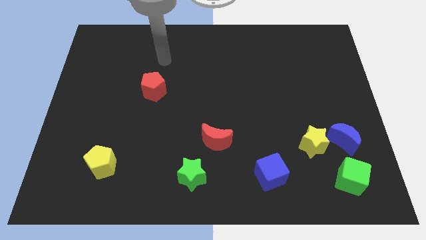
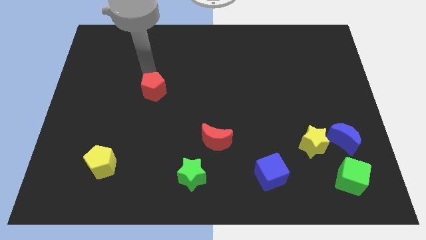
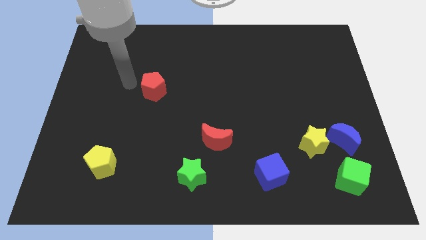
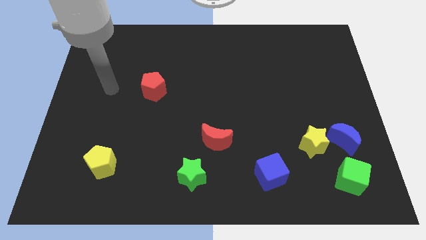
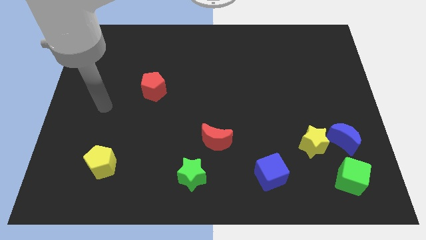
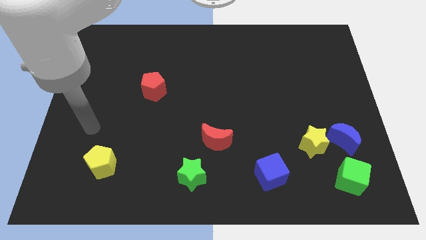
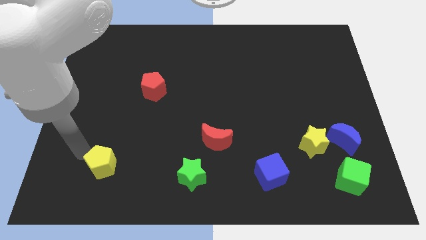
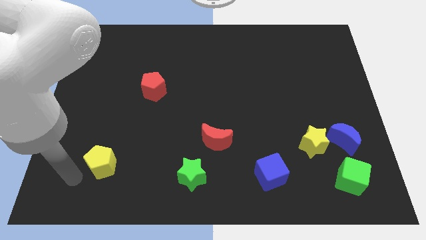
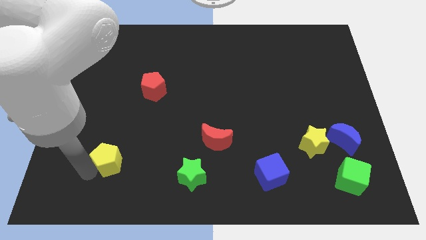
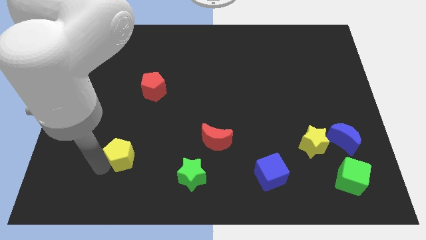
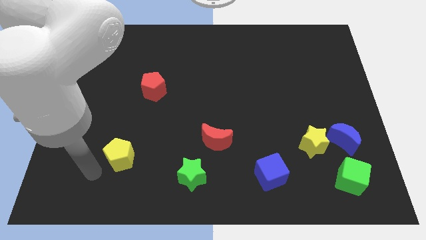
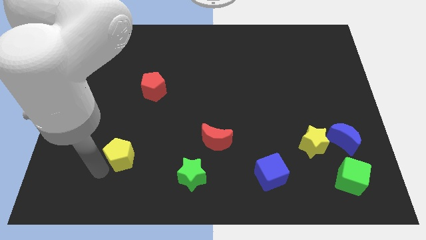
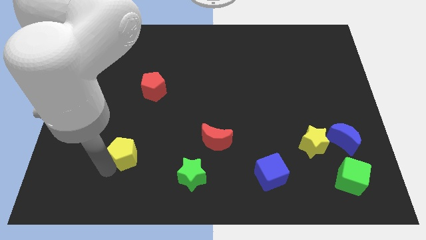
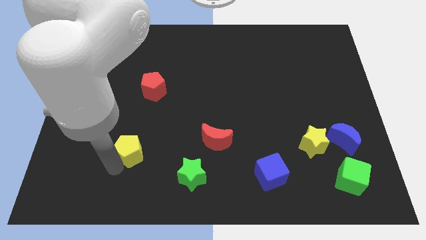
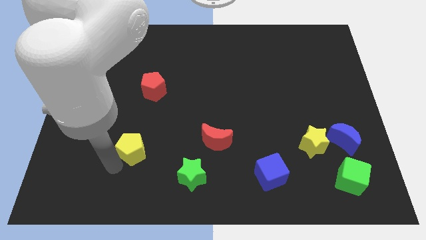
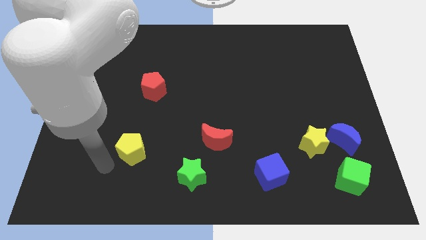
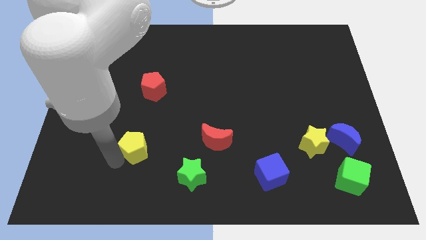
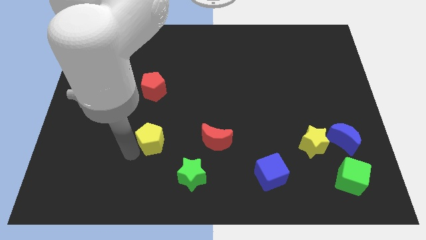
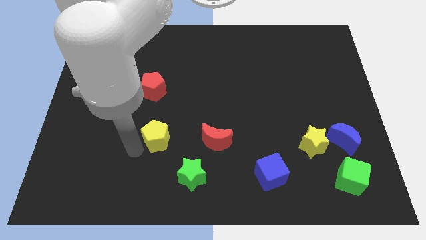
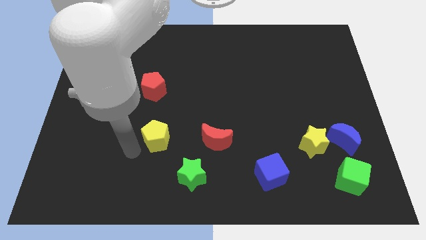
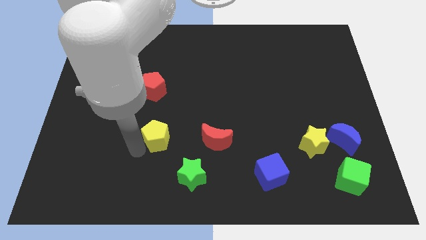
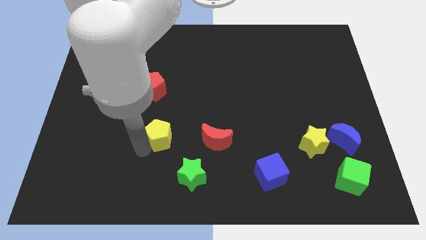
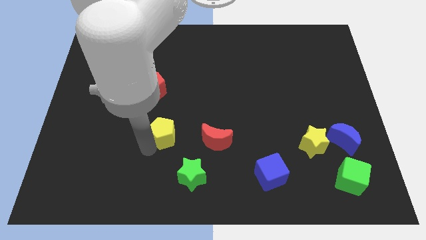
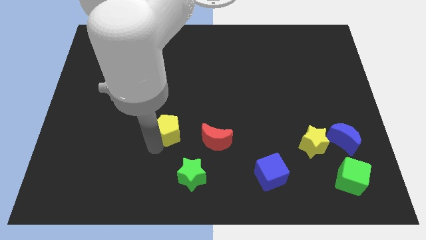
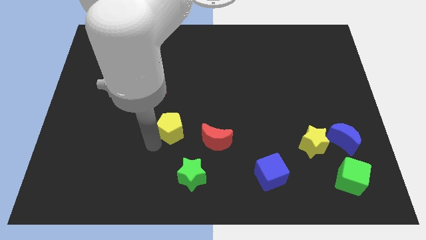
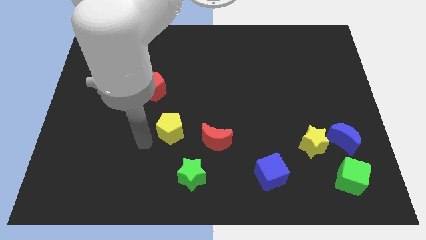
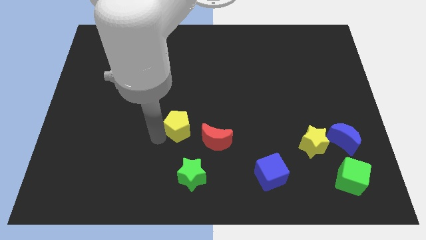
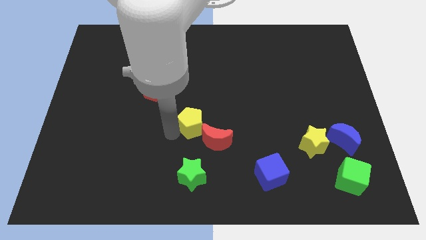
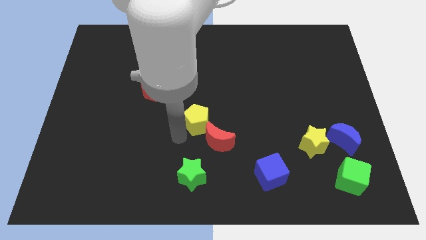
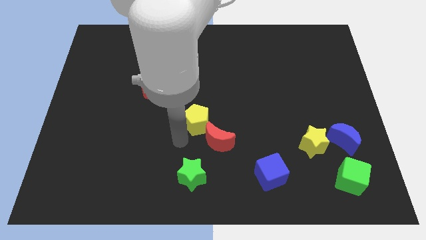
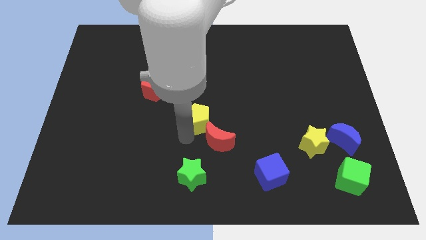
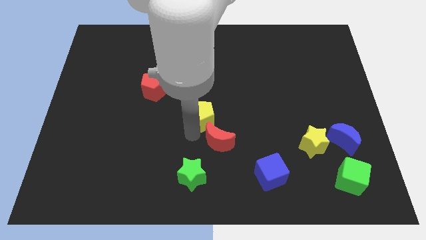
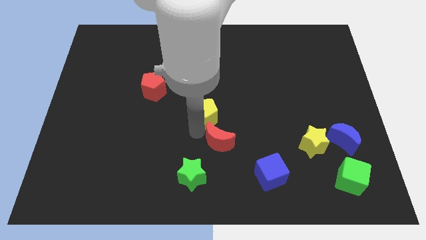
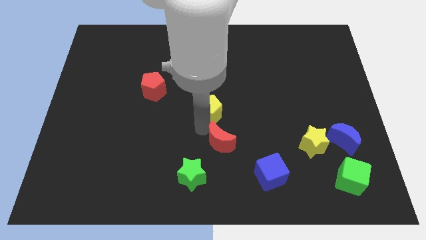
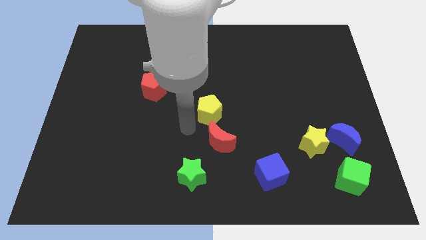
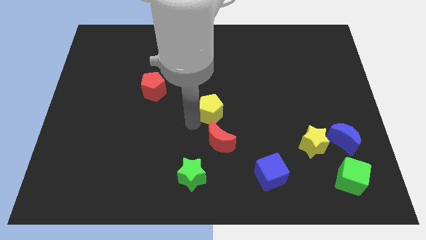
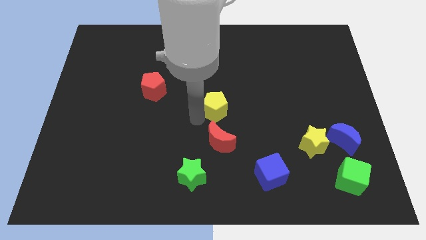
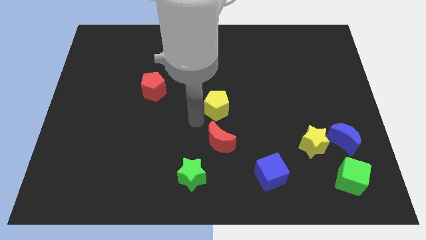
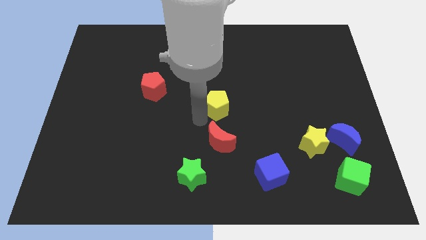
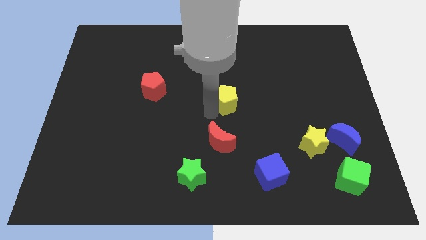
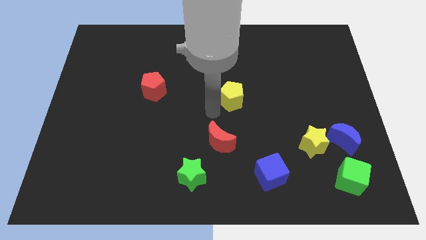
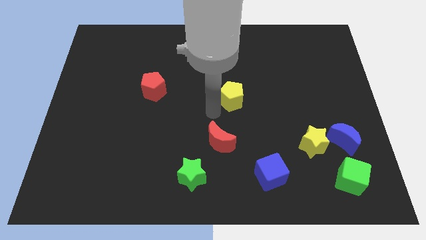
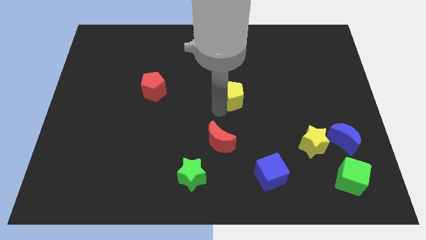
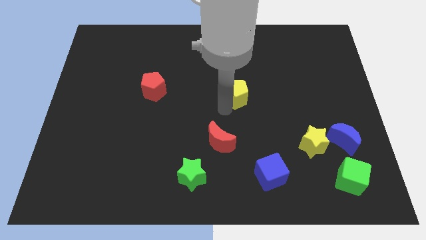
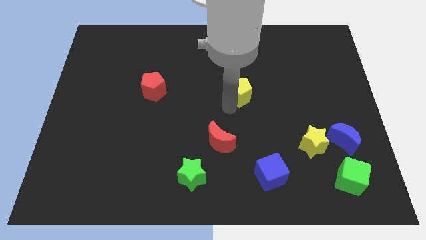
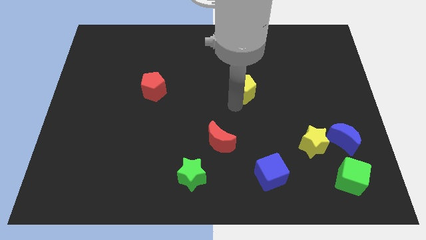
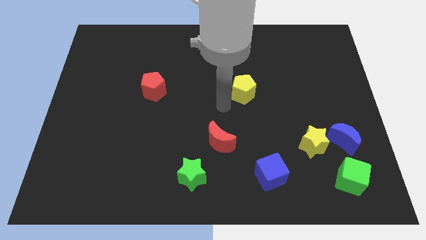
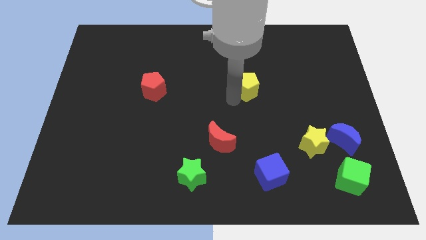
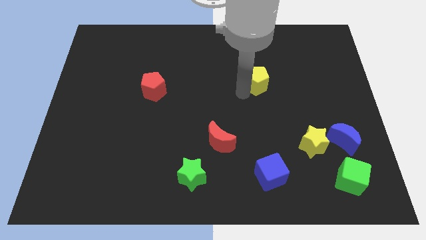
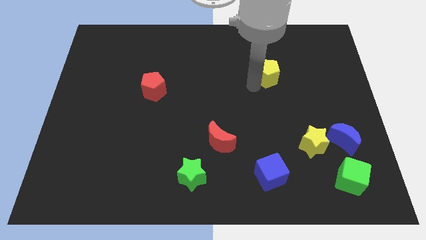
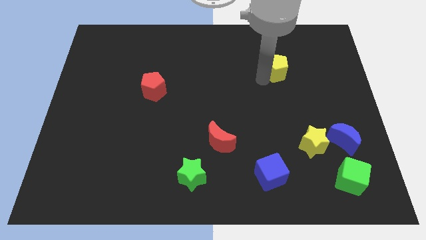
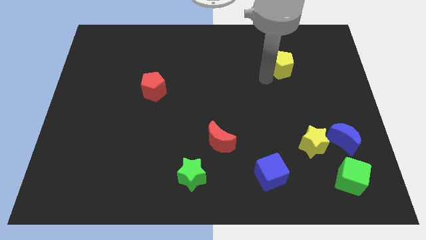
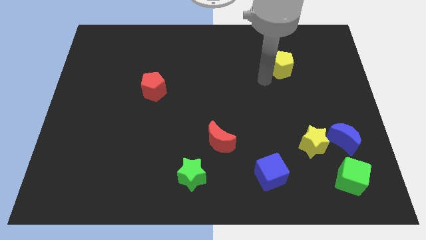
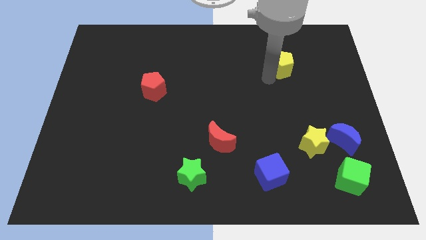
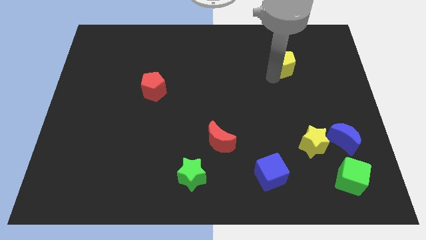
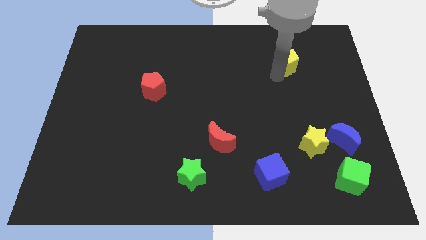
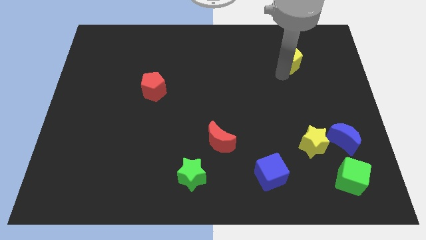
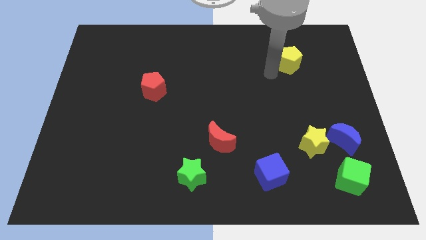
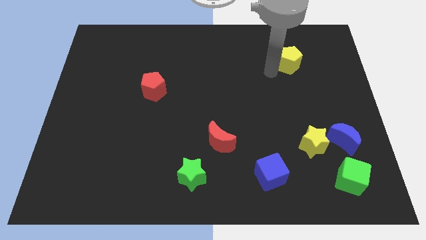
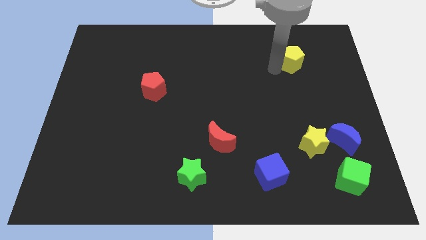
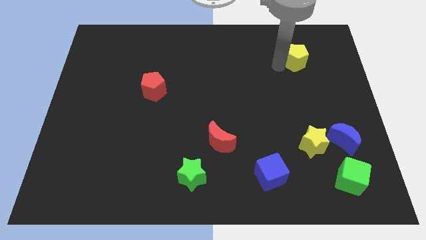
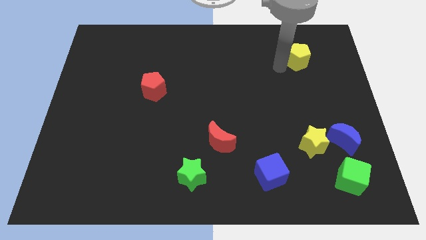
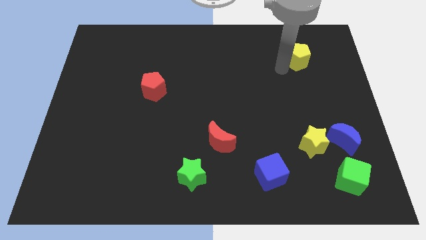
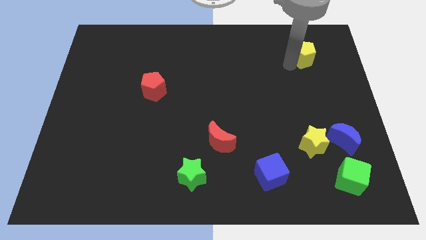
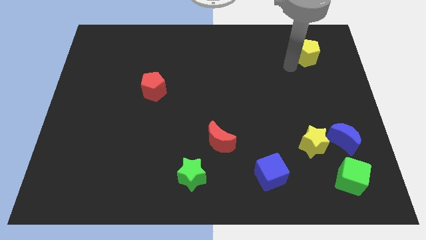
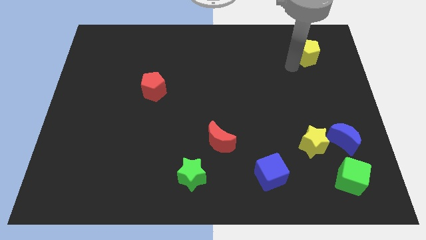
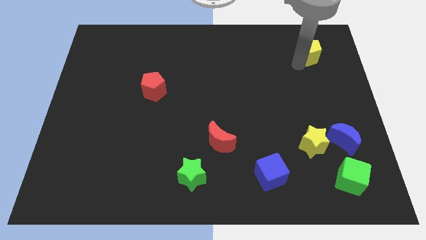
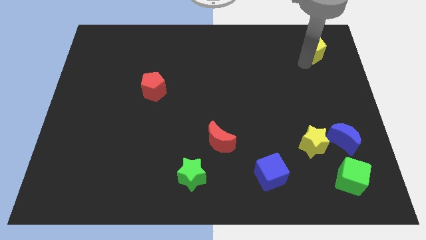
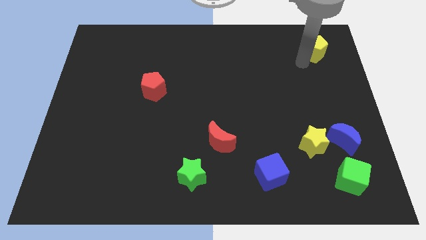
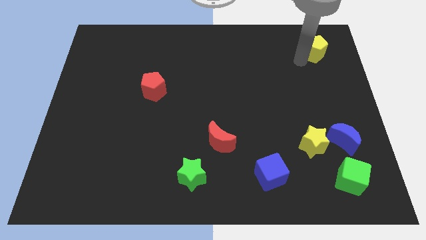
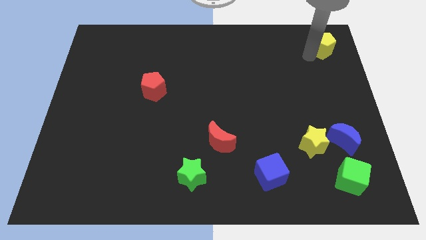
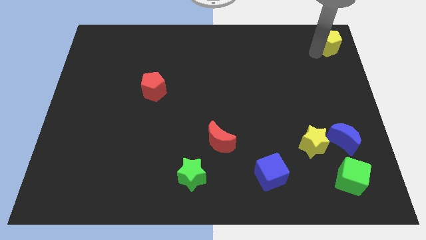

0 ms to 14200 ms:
push the yellow pentagon to the top right of the board
